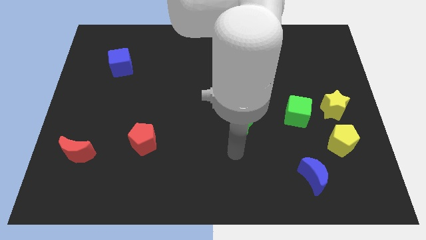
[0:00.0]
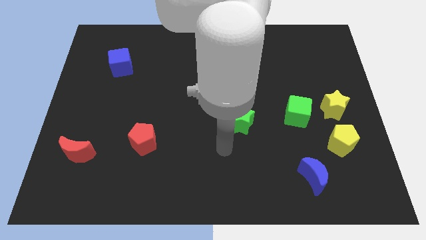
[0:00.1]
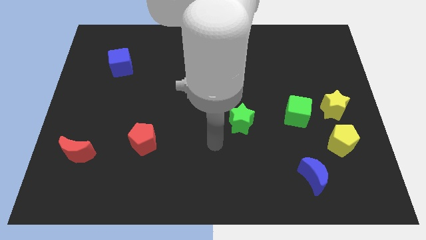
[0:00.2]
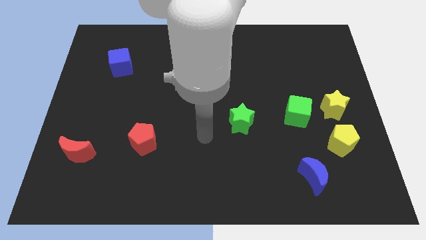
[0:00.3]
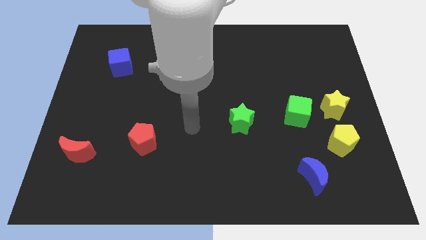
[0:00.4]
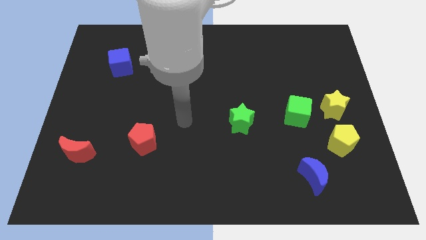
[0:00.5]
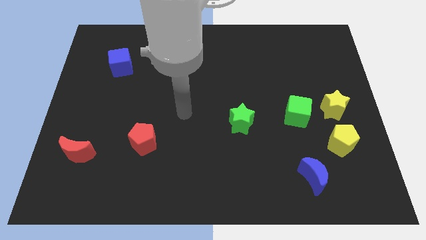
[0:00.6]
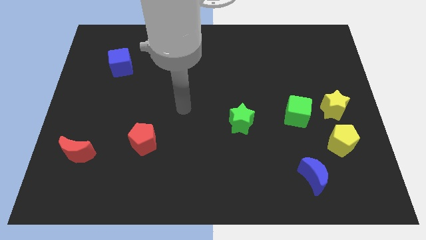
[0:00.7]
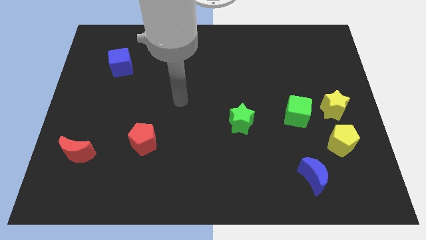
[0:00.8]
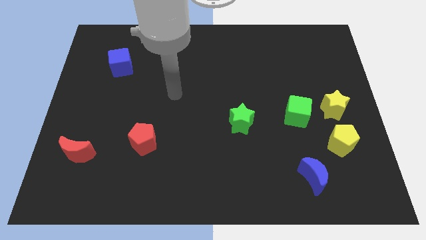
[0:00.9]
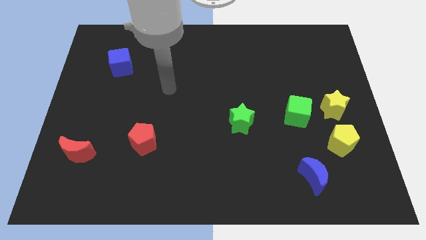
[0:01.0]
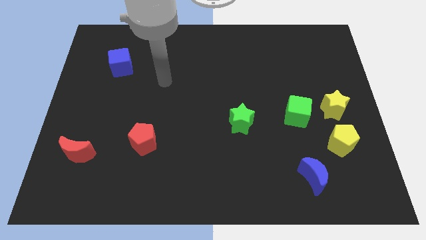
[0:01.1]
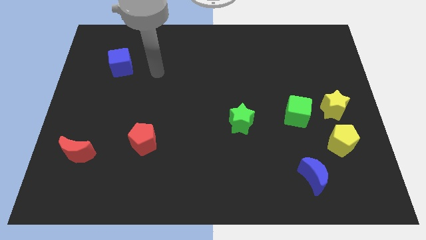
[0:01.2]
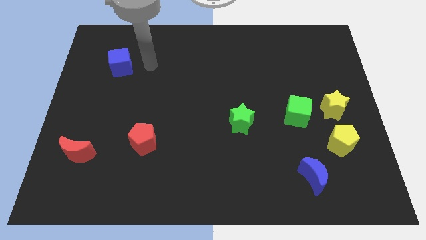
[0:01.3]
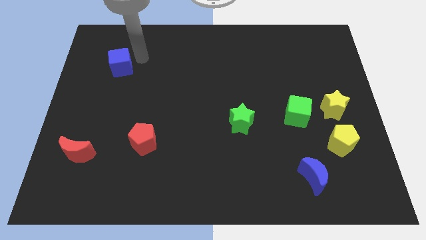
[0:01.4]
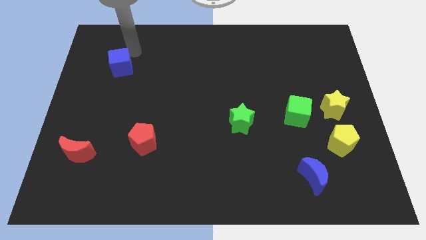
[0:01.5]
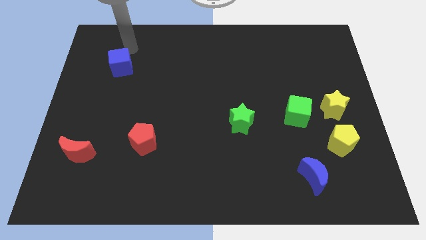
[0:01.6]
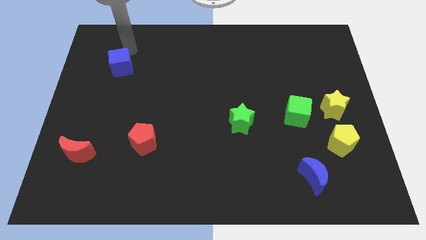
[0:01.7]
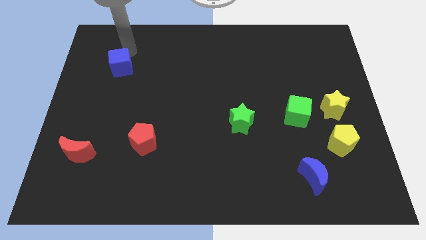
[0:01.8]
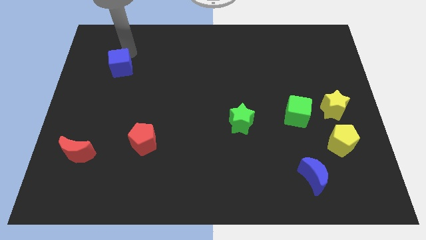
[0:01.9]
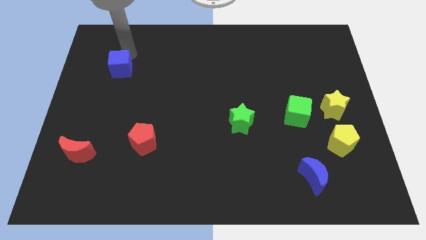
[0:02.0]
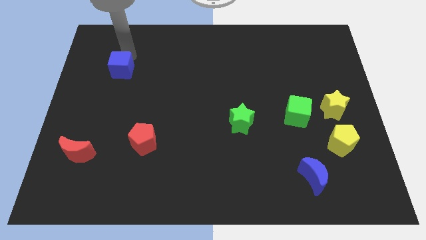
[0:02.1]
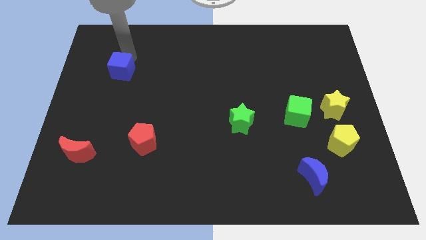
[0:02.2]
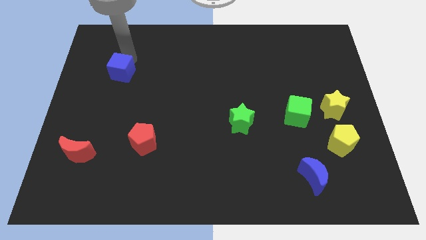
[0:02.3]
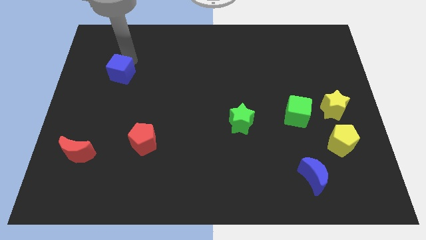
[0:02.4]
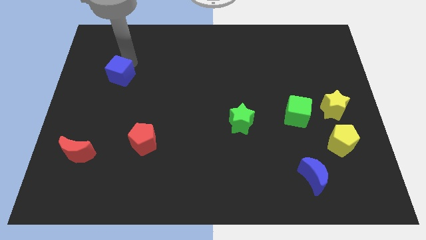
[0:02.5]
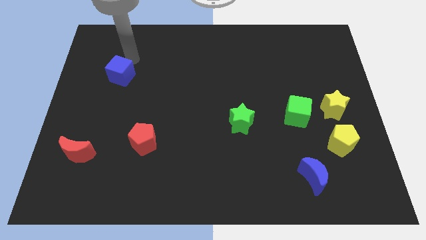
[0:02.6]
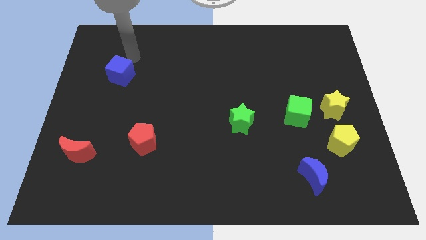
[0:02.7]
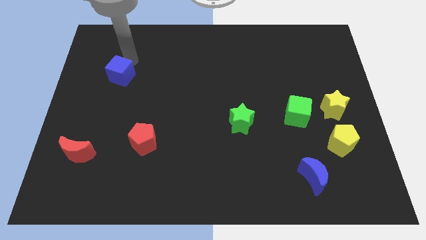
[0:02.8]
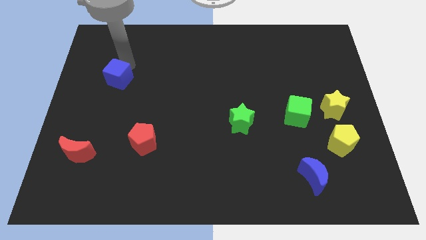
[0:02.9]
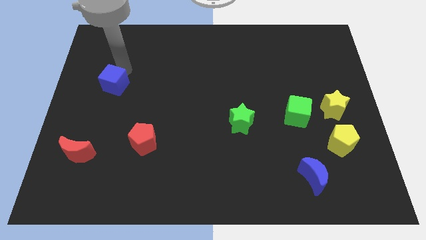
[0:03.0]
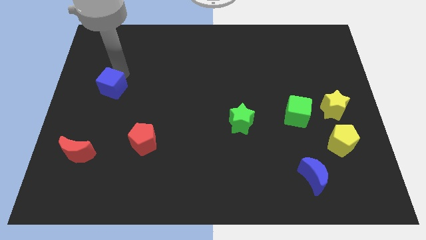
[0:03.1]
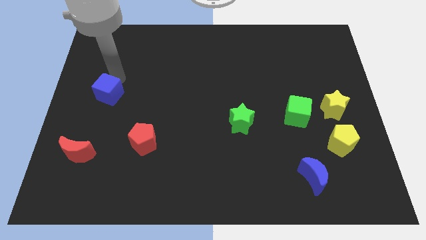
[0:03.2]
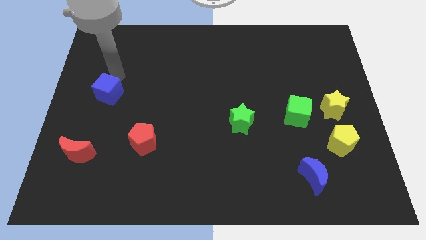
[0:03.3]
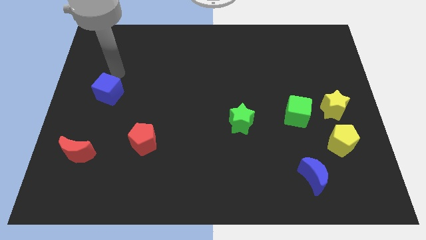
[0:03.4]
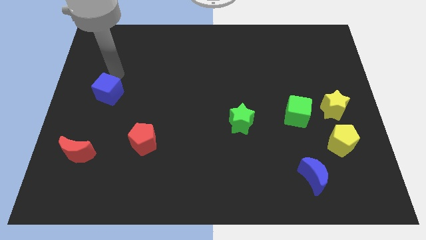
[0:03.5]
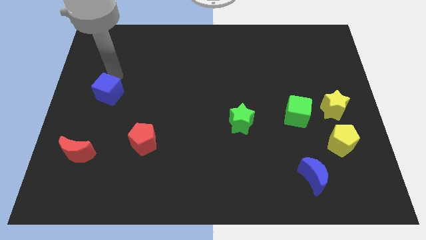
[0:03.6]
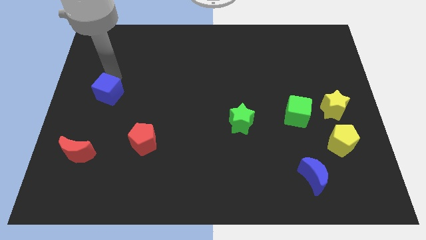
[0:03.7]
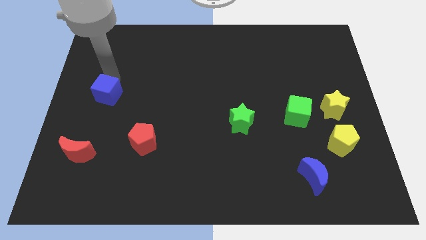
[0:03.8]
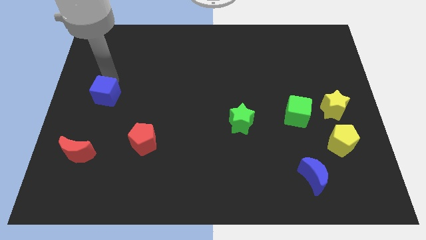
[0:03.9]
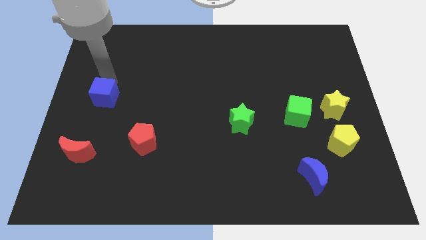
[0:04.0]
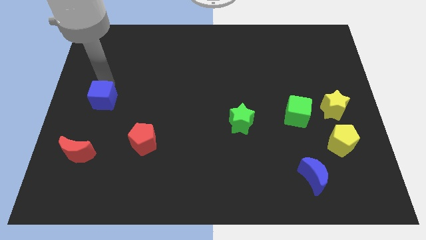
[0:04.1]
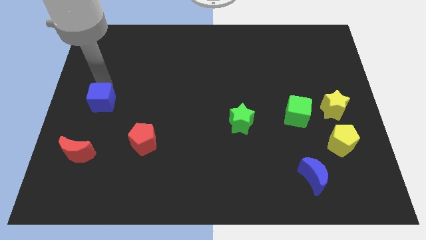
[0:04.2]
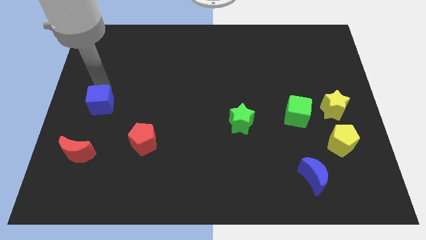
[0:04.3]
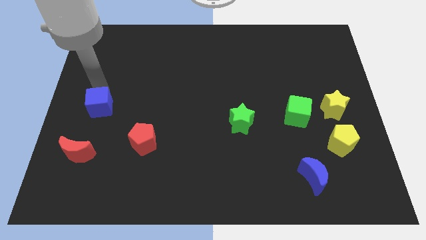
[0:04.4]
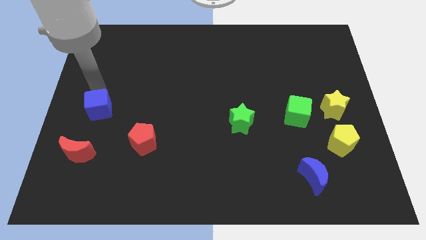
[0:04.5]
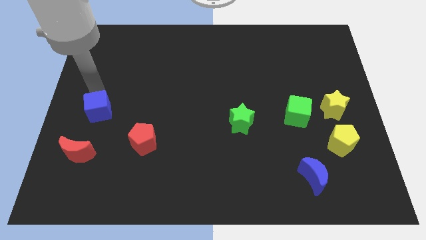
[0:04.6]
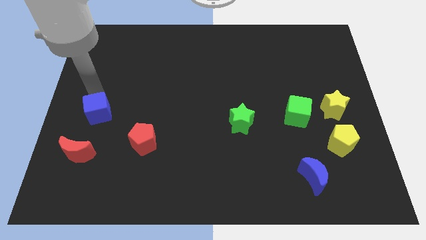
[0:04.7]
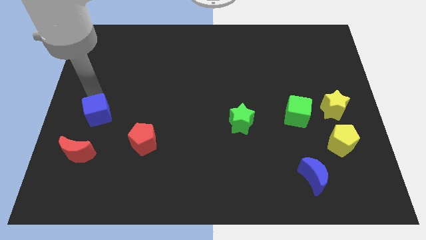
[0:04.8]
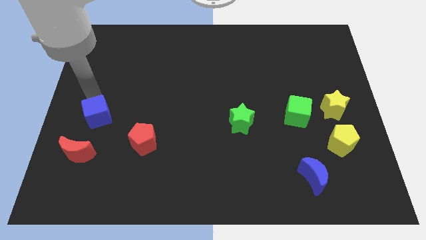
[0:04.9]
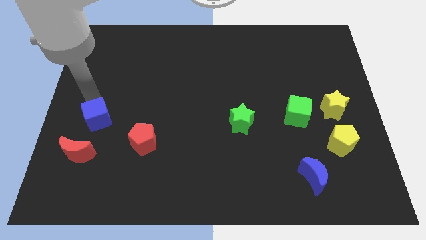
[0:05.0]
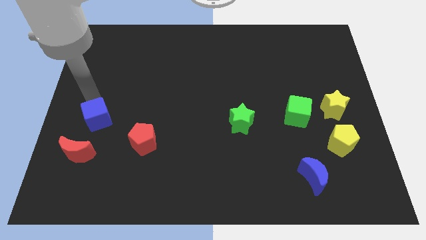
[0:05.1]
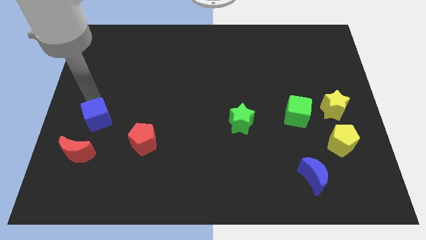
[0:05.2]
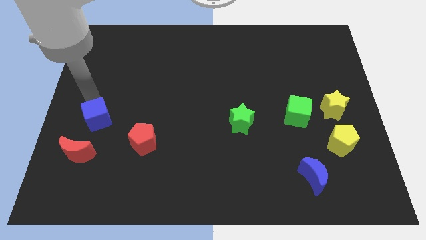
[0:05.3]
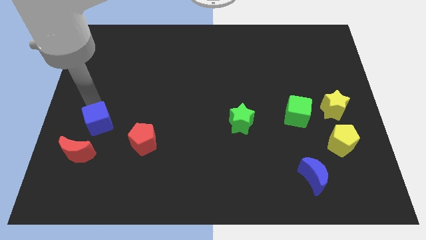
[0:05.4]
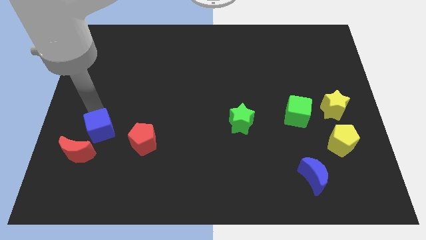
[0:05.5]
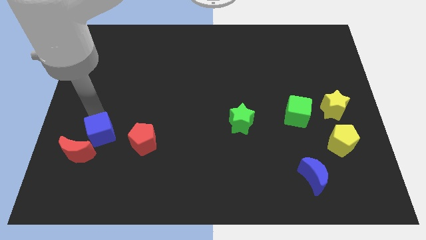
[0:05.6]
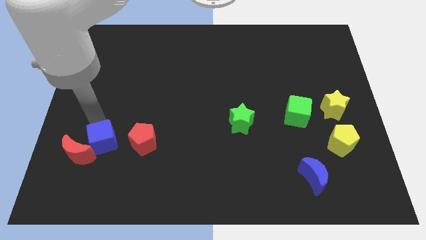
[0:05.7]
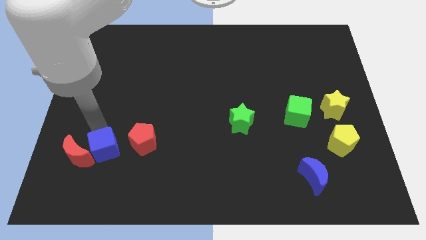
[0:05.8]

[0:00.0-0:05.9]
move the blue cube diagonally down and to the left of the red pentagon

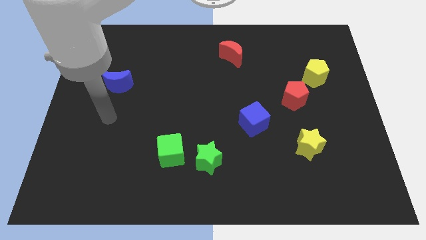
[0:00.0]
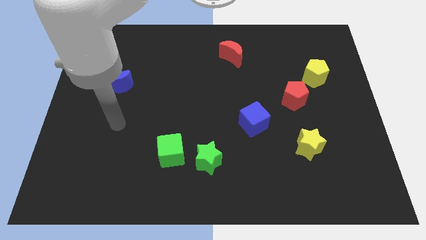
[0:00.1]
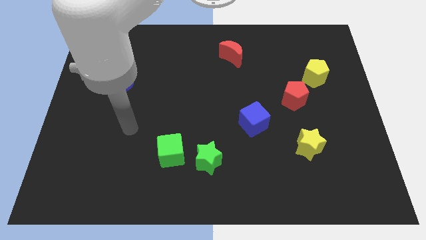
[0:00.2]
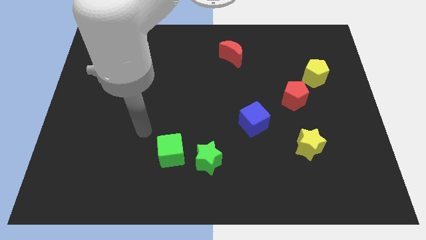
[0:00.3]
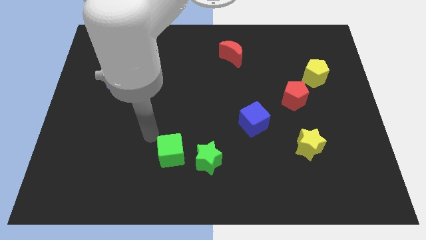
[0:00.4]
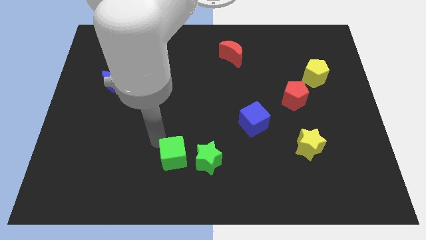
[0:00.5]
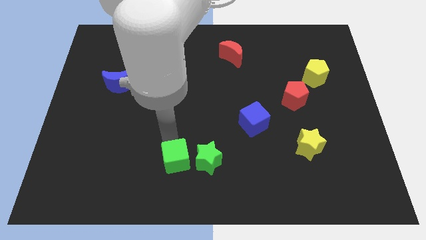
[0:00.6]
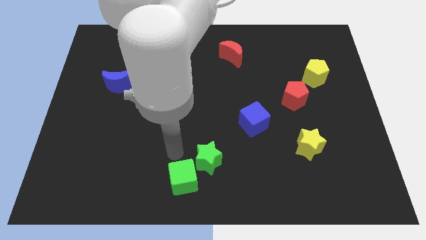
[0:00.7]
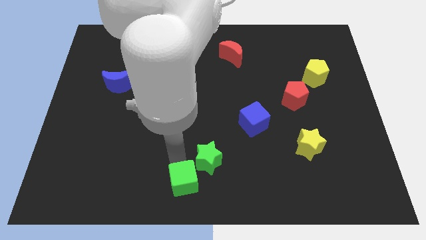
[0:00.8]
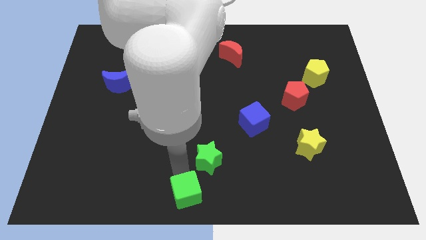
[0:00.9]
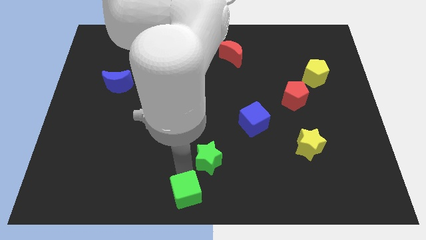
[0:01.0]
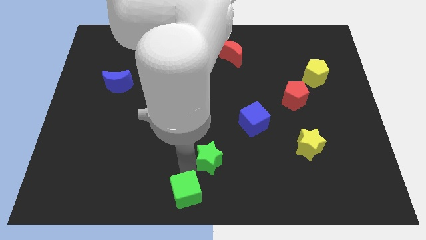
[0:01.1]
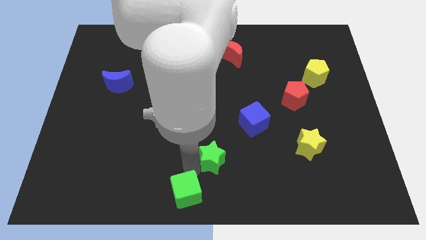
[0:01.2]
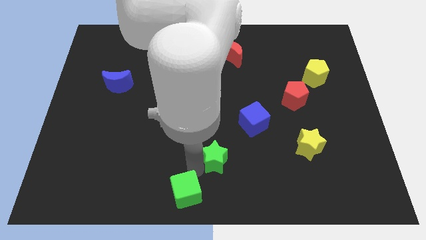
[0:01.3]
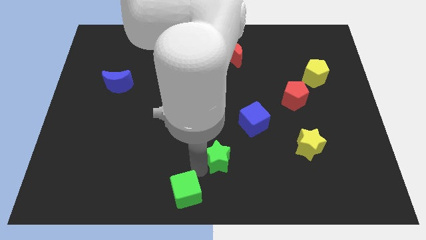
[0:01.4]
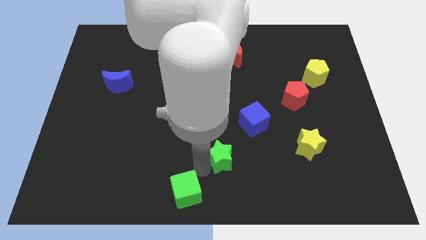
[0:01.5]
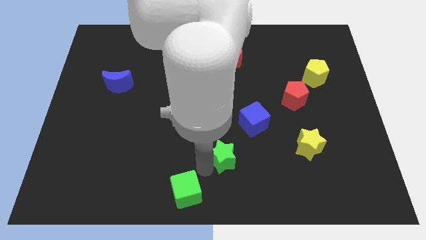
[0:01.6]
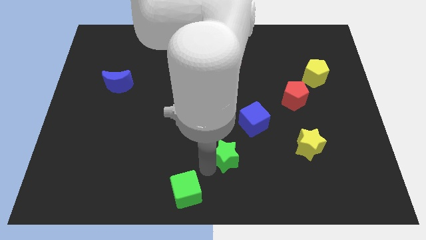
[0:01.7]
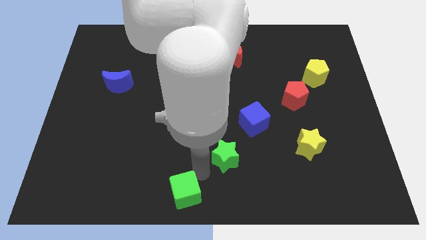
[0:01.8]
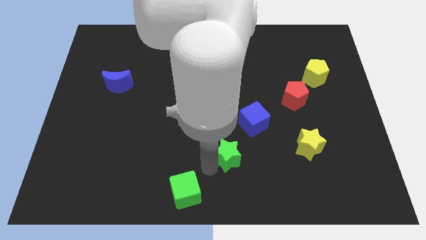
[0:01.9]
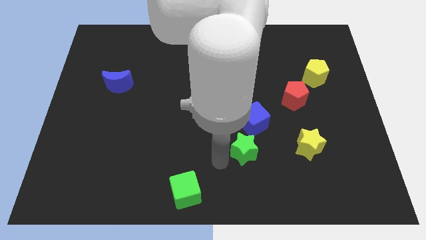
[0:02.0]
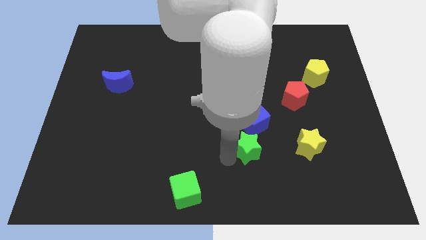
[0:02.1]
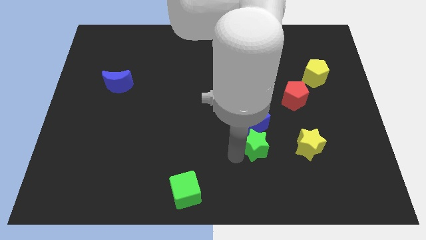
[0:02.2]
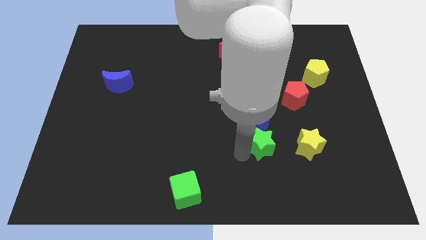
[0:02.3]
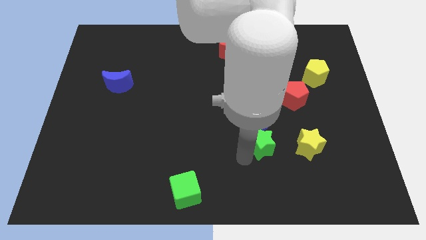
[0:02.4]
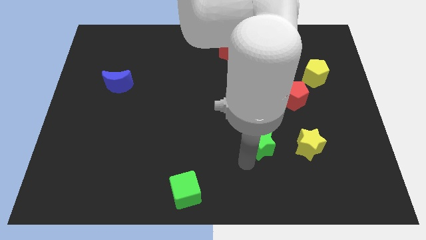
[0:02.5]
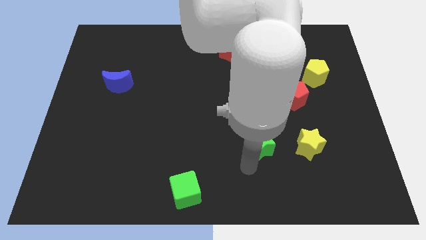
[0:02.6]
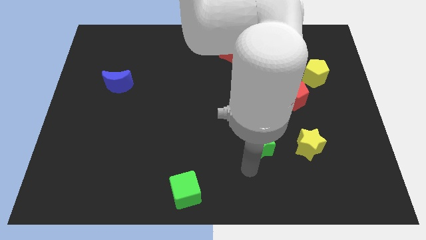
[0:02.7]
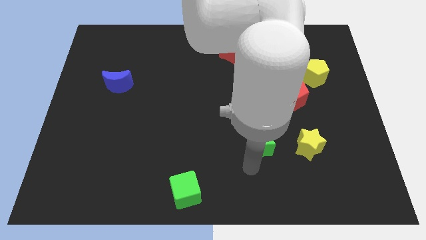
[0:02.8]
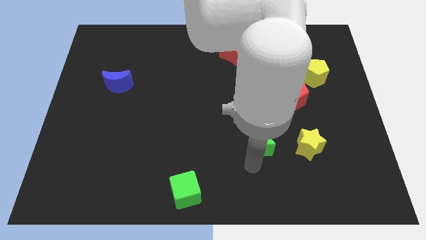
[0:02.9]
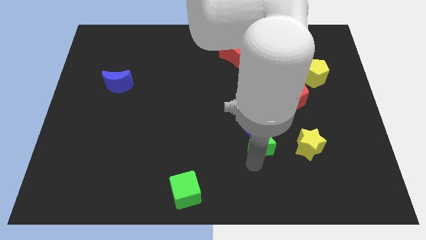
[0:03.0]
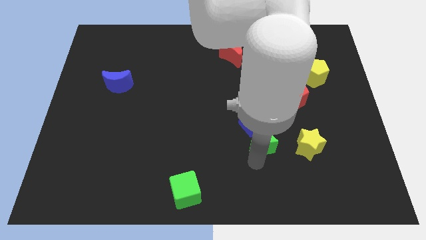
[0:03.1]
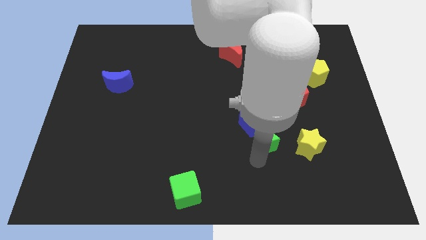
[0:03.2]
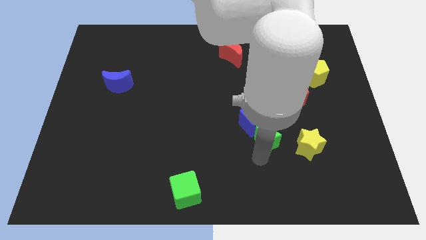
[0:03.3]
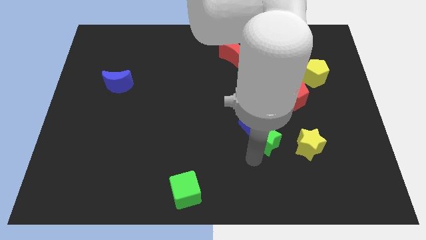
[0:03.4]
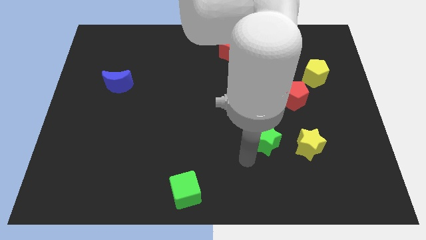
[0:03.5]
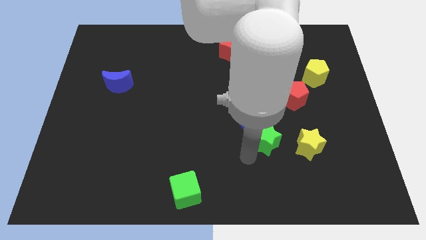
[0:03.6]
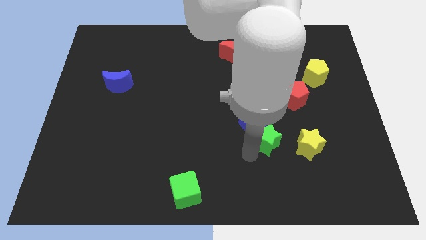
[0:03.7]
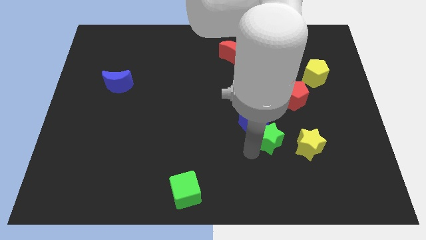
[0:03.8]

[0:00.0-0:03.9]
move the green star to the top left side of the yellow star
